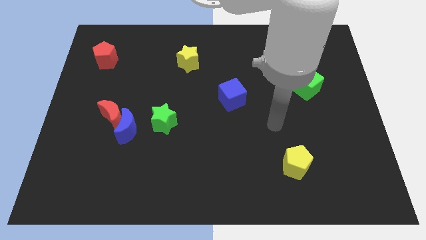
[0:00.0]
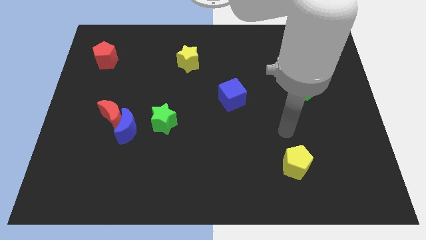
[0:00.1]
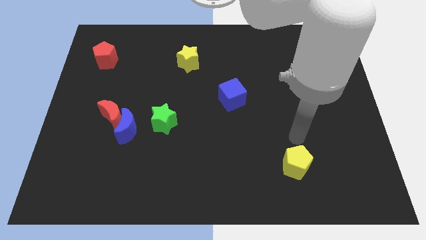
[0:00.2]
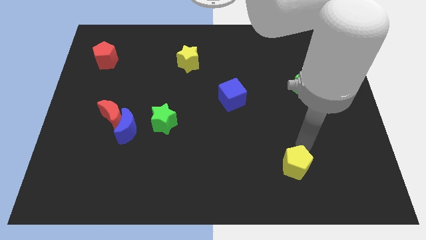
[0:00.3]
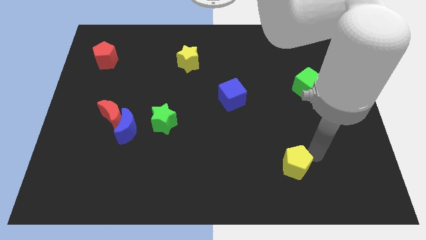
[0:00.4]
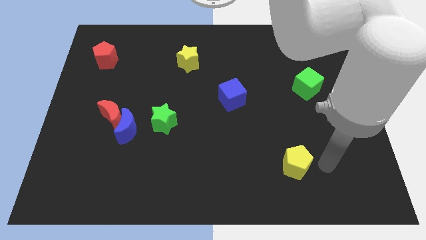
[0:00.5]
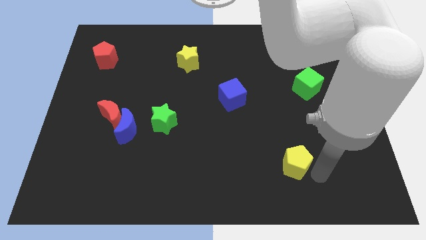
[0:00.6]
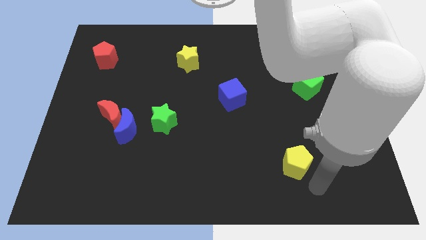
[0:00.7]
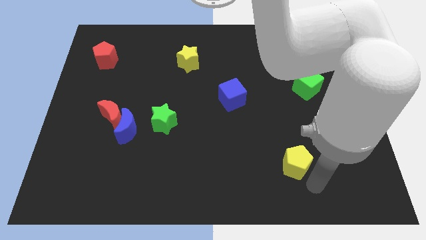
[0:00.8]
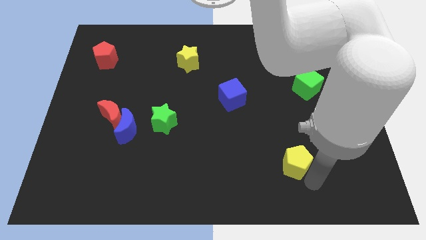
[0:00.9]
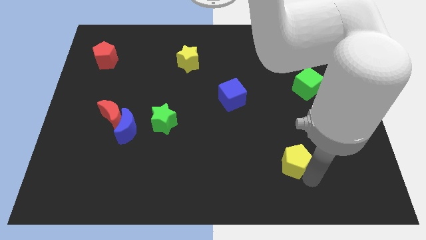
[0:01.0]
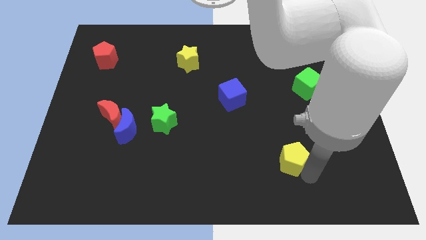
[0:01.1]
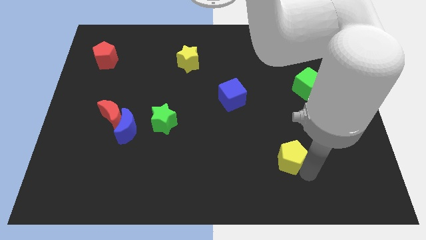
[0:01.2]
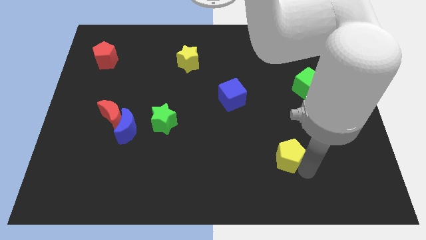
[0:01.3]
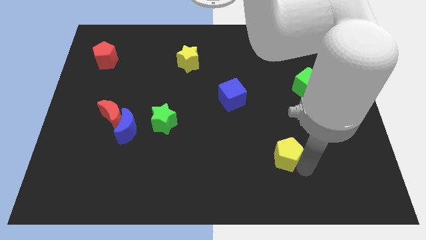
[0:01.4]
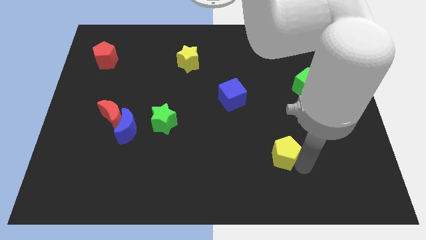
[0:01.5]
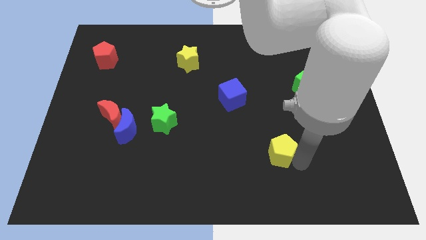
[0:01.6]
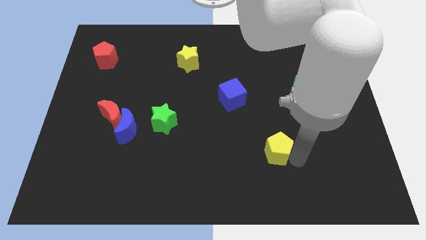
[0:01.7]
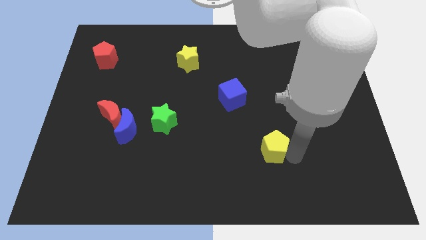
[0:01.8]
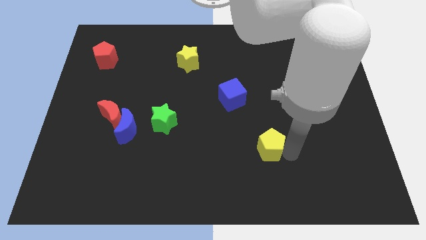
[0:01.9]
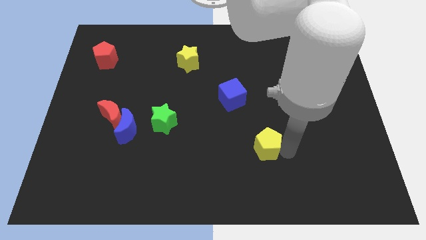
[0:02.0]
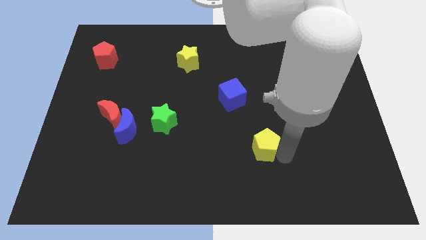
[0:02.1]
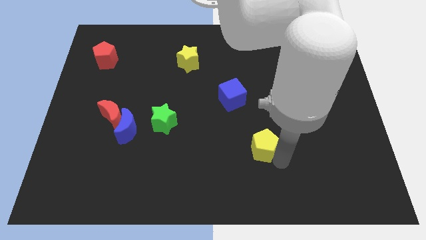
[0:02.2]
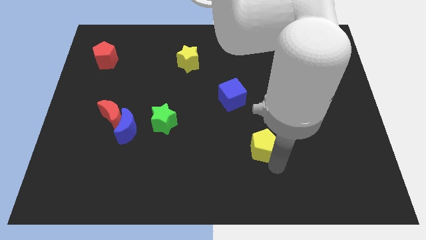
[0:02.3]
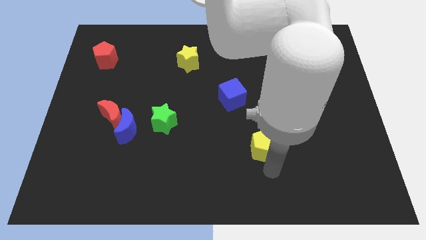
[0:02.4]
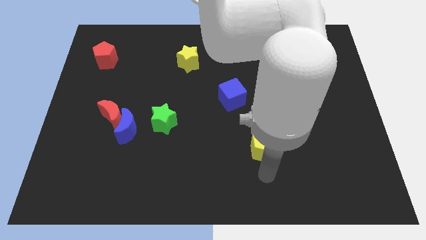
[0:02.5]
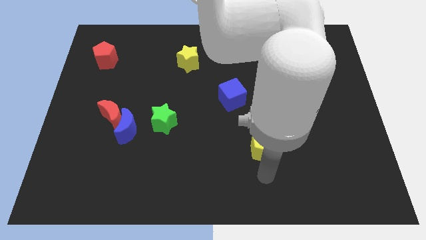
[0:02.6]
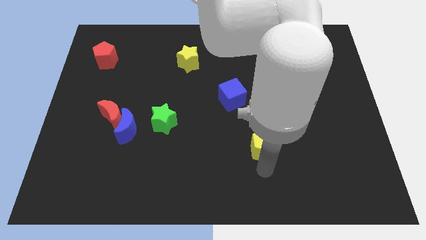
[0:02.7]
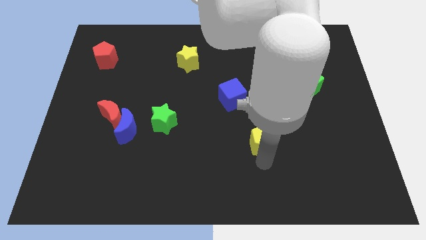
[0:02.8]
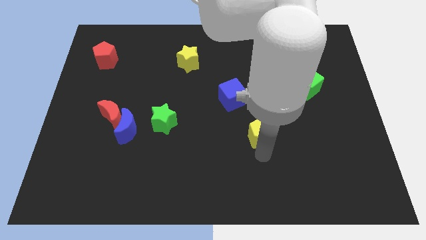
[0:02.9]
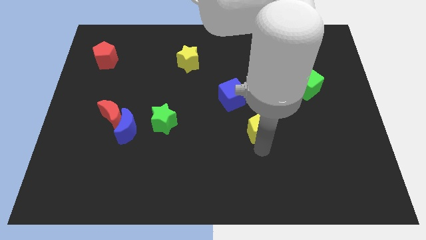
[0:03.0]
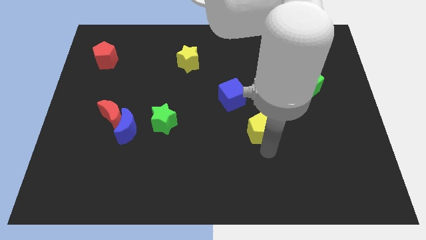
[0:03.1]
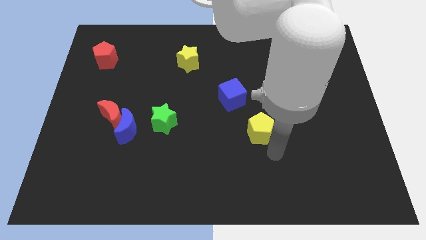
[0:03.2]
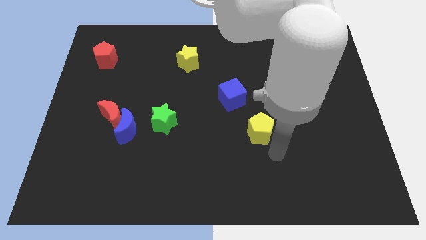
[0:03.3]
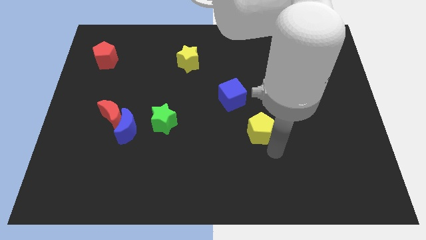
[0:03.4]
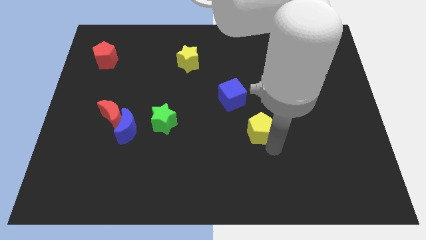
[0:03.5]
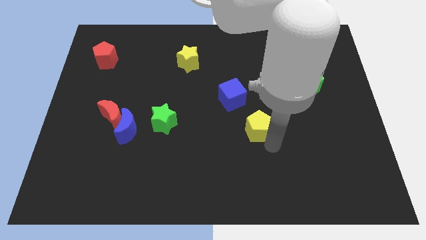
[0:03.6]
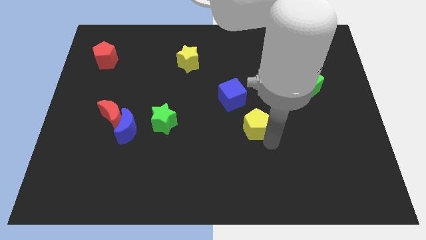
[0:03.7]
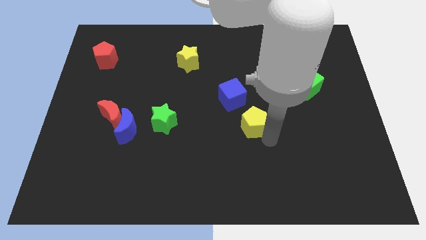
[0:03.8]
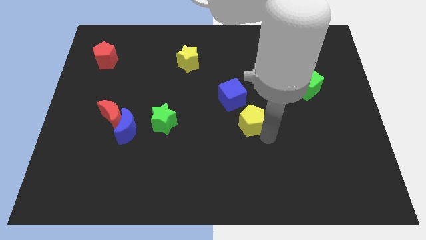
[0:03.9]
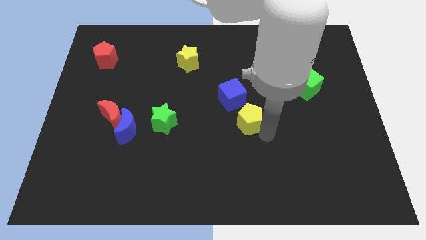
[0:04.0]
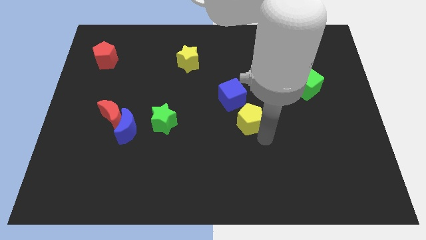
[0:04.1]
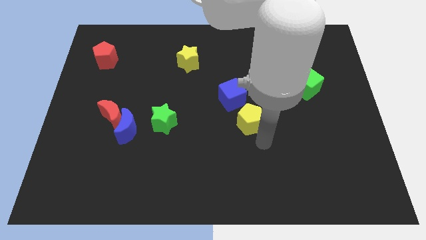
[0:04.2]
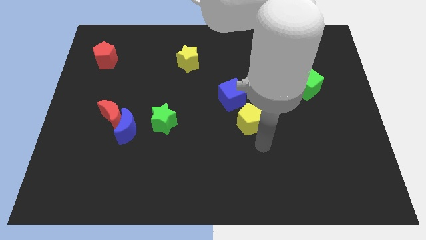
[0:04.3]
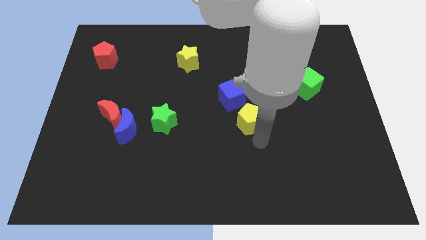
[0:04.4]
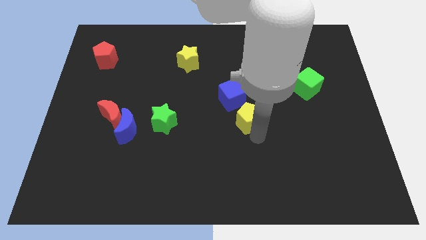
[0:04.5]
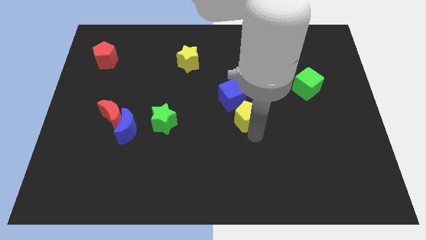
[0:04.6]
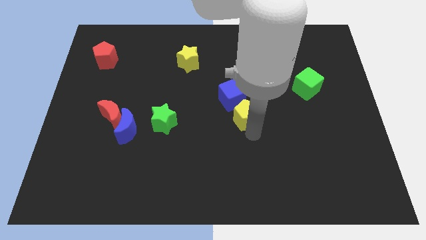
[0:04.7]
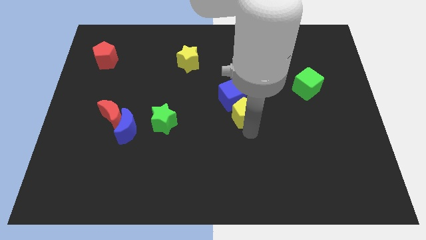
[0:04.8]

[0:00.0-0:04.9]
push the yellow pentagon to the blue cube

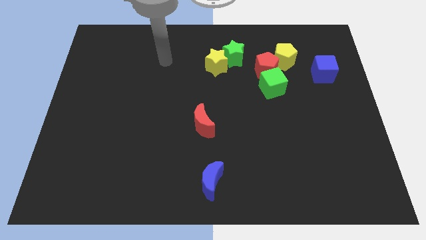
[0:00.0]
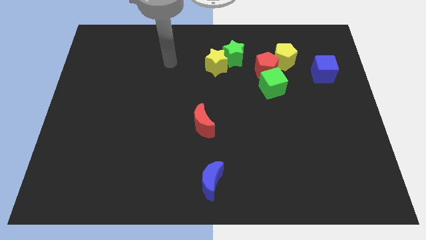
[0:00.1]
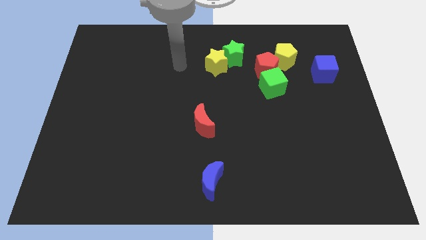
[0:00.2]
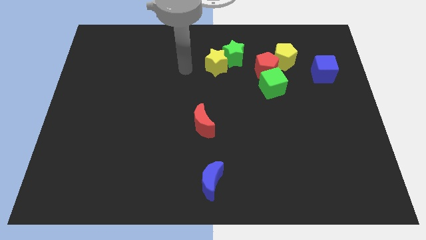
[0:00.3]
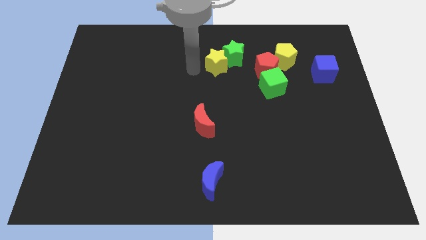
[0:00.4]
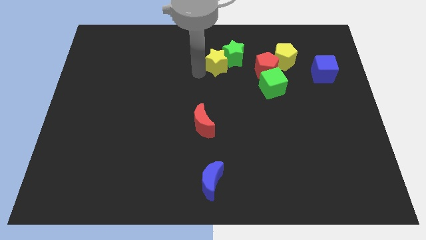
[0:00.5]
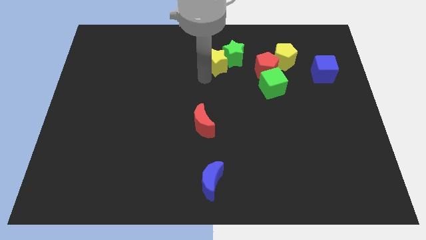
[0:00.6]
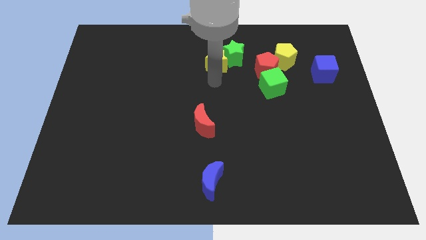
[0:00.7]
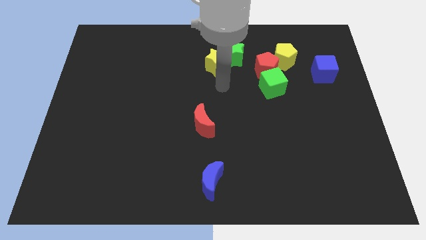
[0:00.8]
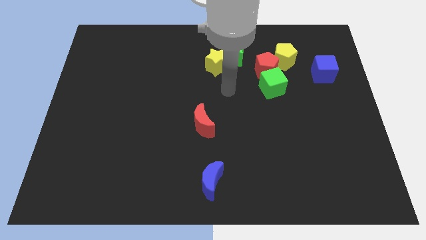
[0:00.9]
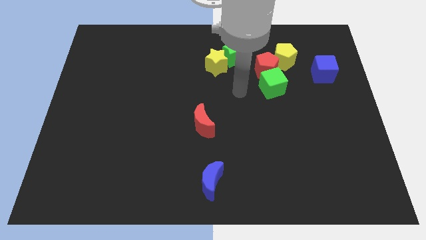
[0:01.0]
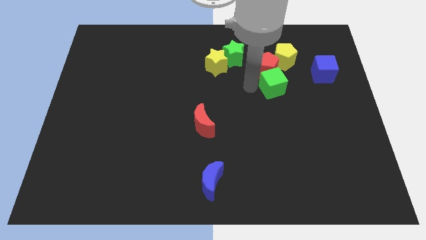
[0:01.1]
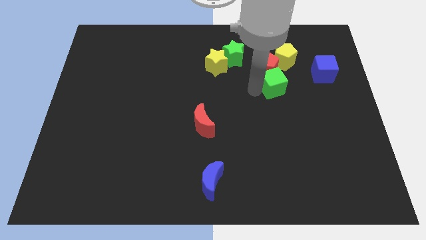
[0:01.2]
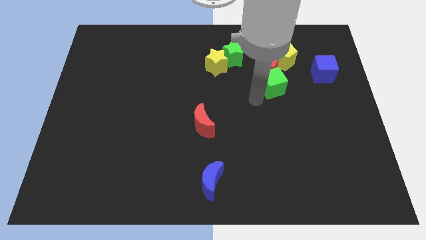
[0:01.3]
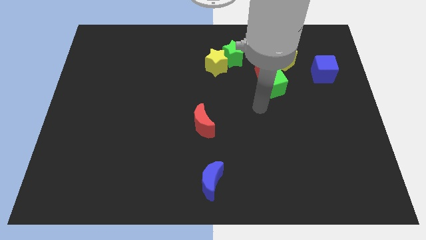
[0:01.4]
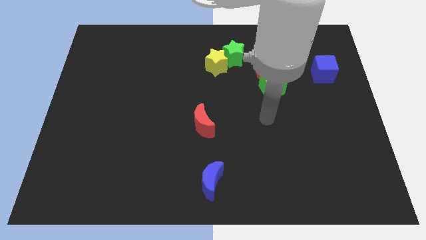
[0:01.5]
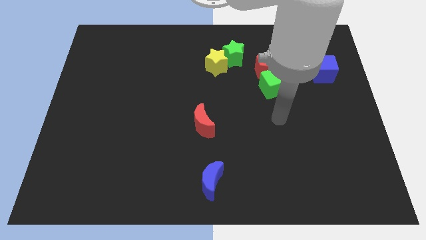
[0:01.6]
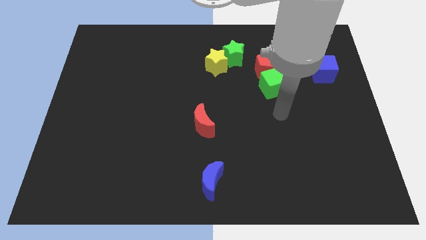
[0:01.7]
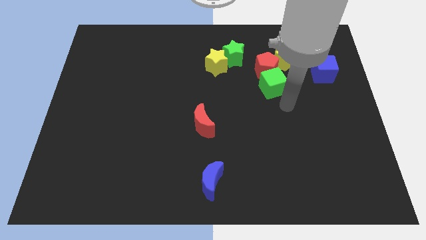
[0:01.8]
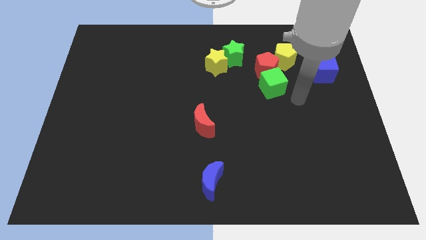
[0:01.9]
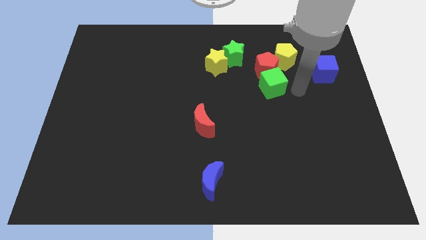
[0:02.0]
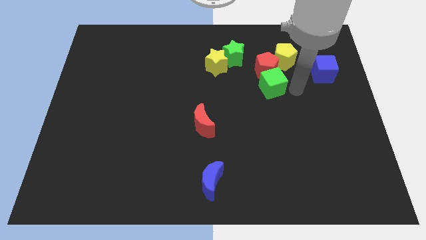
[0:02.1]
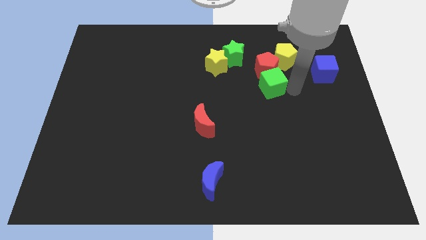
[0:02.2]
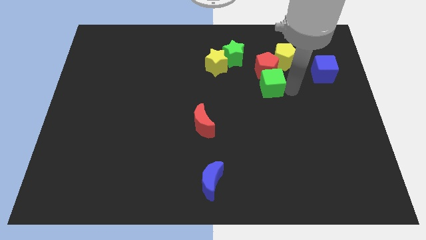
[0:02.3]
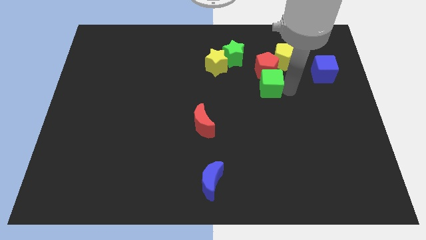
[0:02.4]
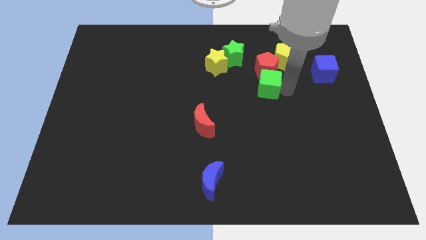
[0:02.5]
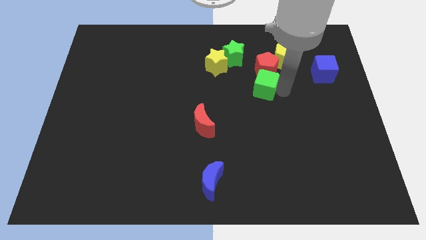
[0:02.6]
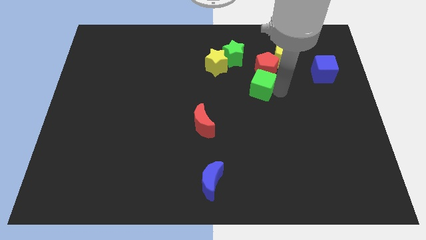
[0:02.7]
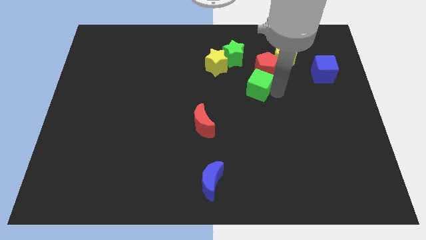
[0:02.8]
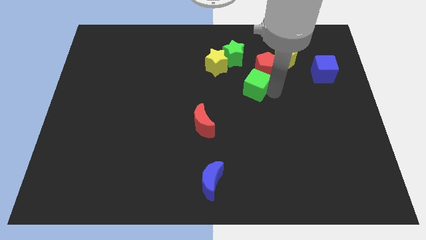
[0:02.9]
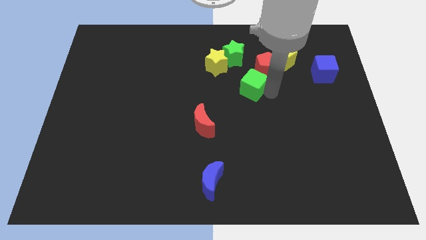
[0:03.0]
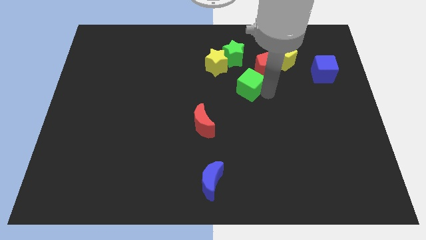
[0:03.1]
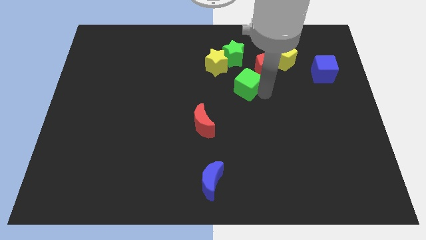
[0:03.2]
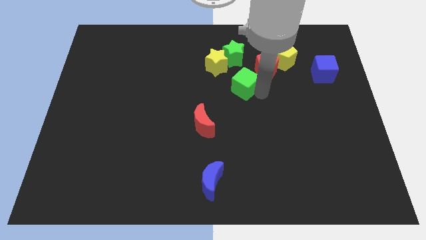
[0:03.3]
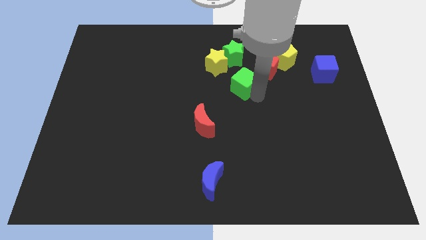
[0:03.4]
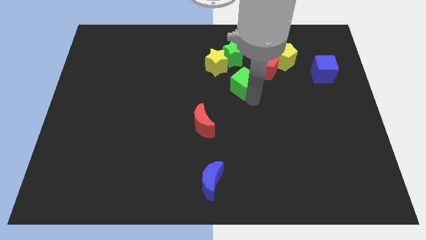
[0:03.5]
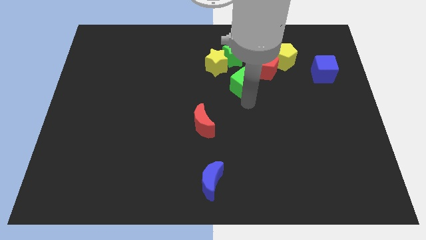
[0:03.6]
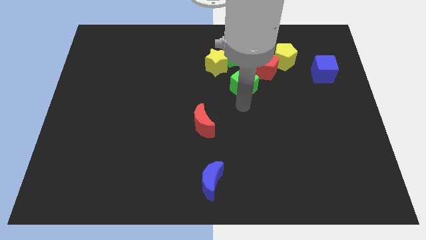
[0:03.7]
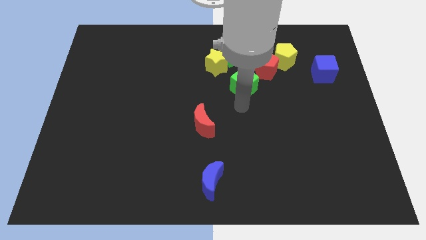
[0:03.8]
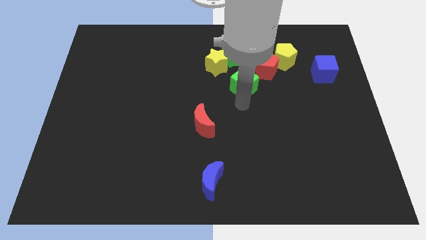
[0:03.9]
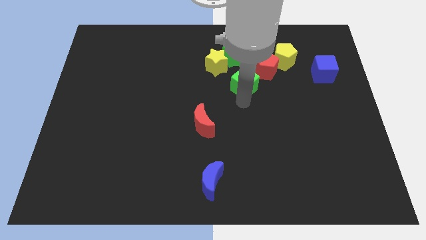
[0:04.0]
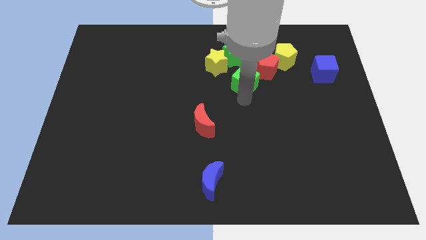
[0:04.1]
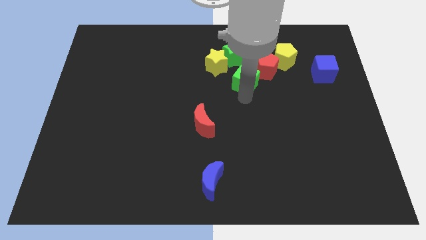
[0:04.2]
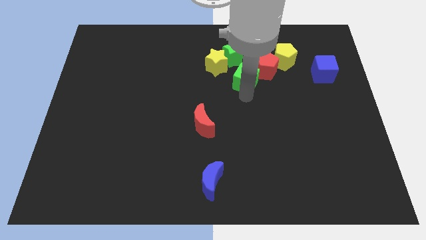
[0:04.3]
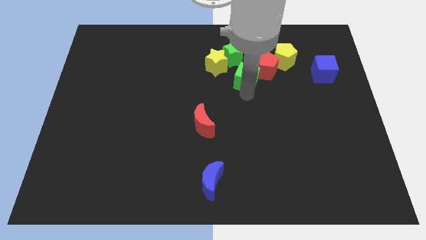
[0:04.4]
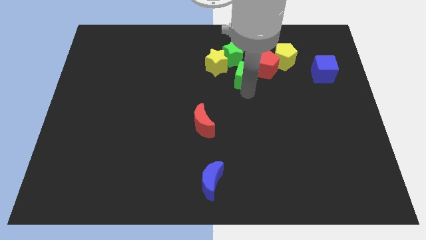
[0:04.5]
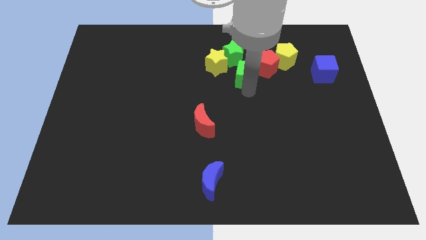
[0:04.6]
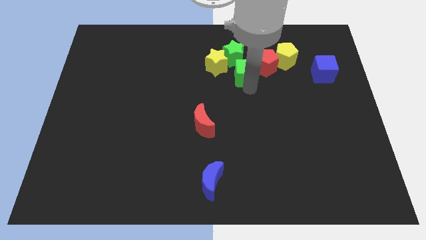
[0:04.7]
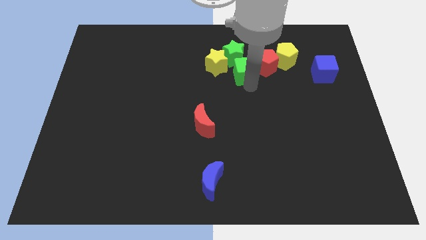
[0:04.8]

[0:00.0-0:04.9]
push the green cube next to the green star
